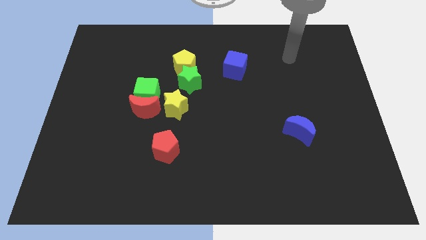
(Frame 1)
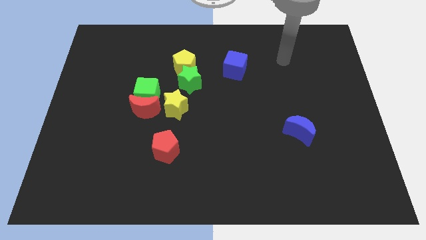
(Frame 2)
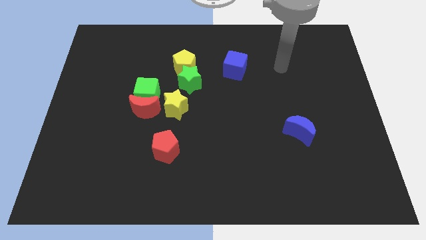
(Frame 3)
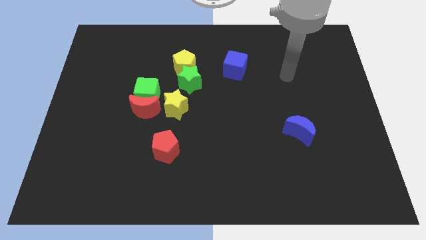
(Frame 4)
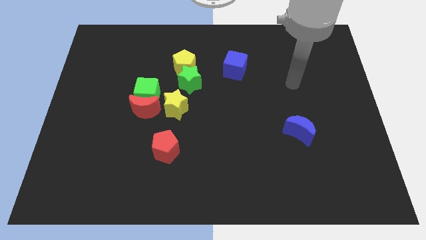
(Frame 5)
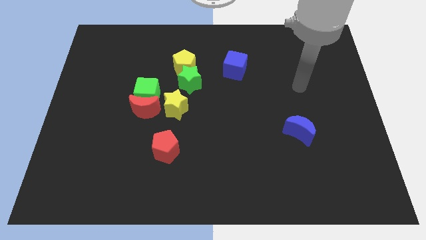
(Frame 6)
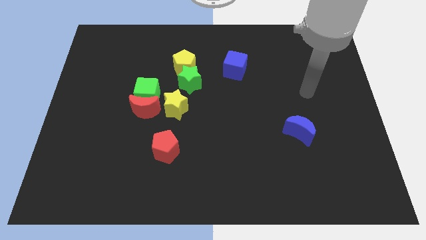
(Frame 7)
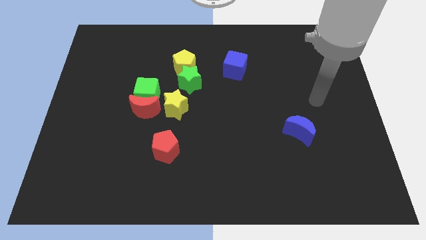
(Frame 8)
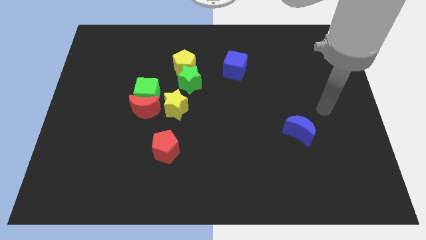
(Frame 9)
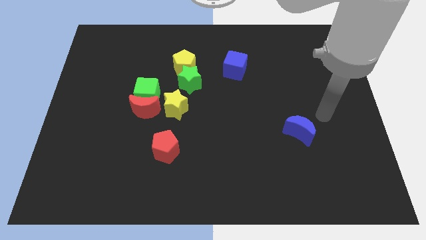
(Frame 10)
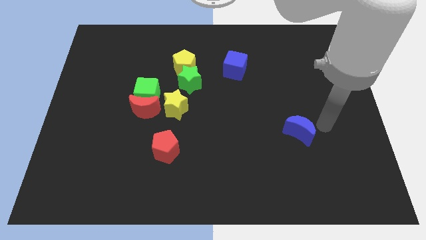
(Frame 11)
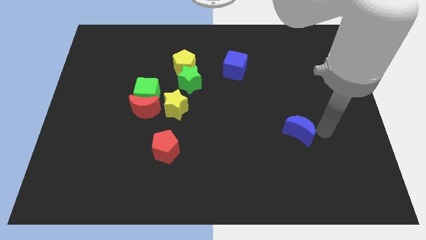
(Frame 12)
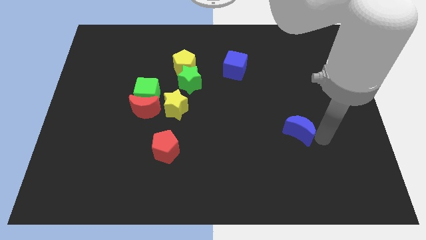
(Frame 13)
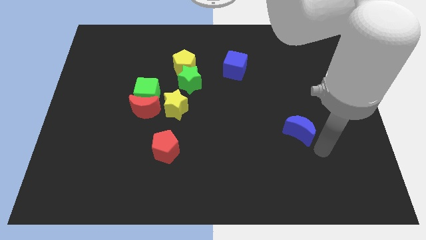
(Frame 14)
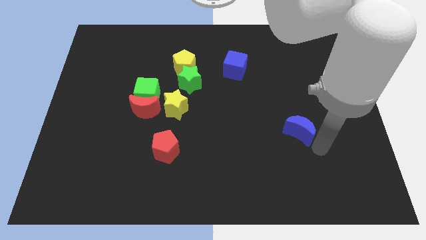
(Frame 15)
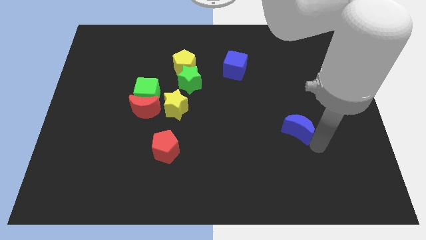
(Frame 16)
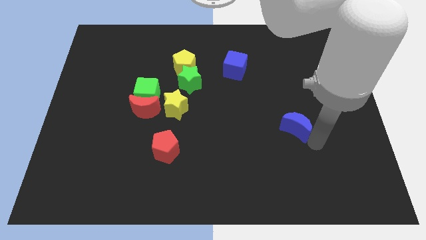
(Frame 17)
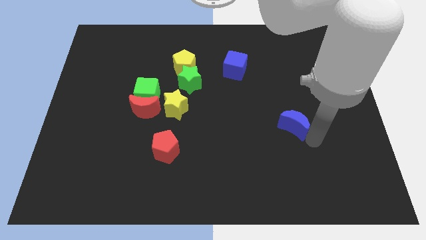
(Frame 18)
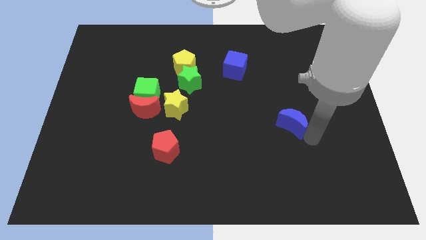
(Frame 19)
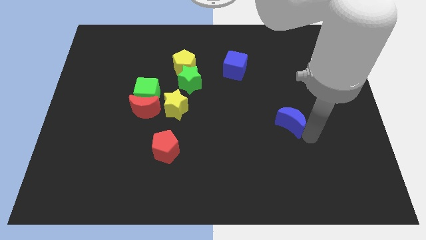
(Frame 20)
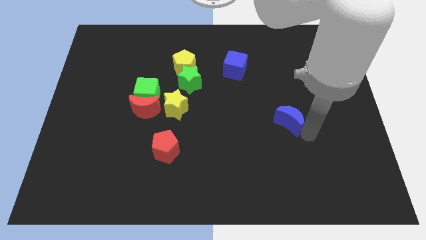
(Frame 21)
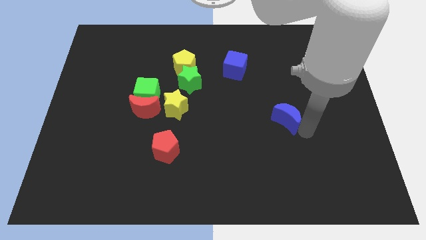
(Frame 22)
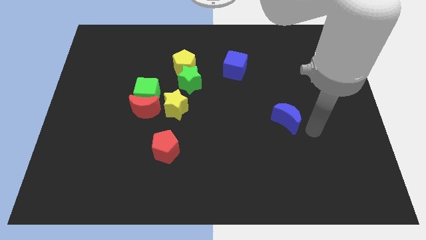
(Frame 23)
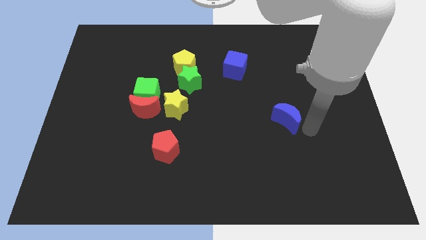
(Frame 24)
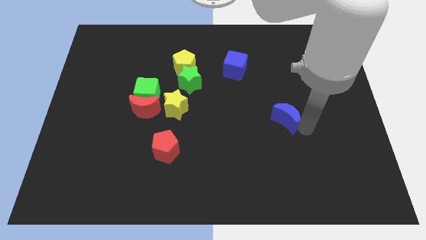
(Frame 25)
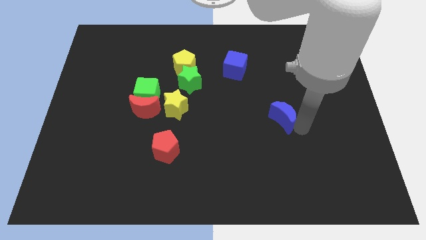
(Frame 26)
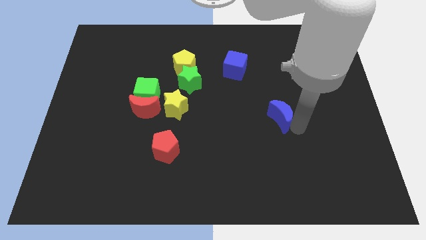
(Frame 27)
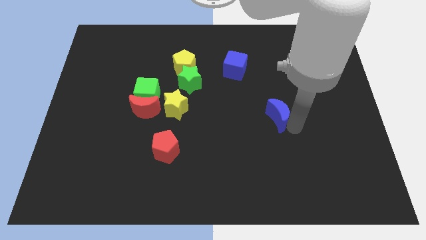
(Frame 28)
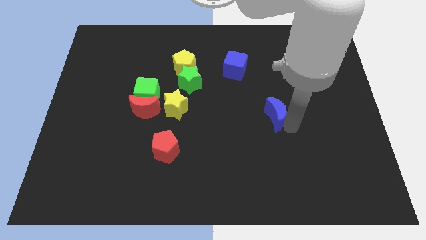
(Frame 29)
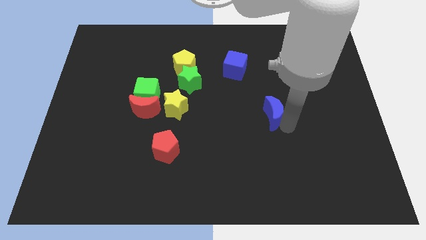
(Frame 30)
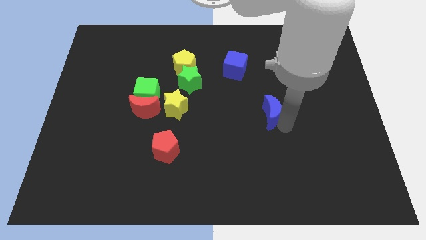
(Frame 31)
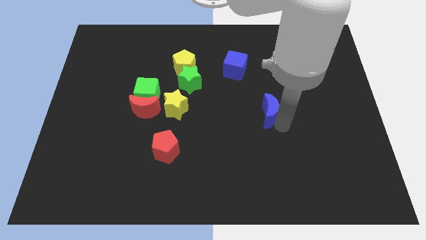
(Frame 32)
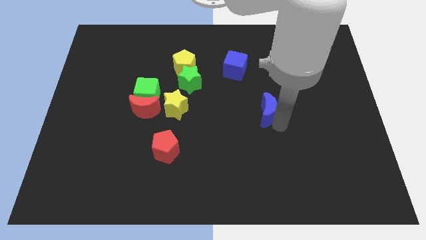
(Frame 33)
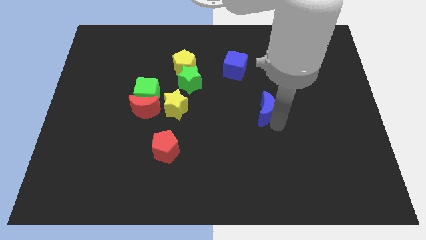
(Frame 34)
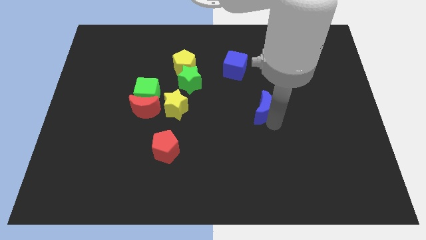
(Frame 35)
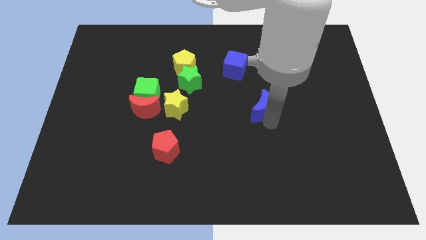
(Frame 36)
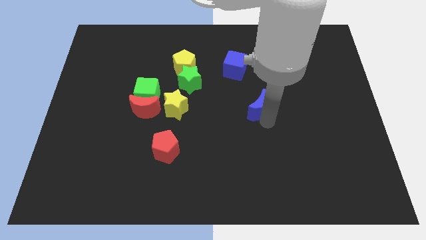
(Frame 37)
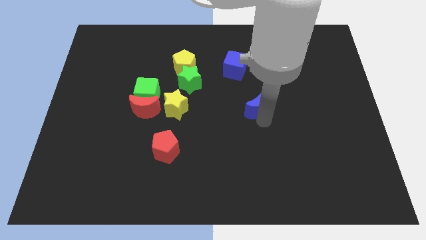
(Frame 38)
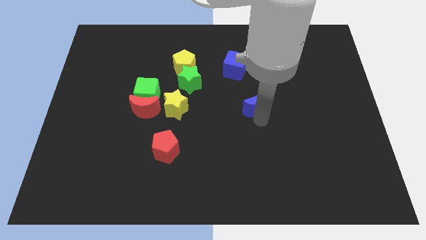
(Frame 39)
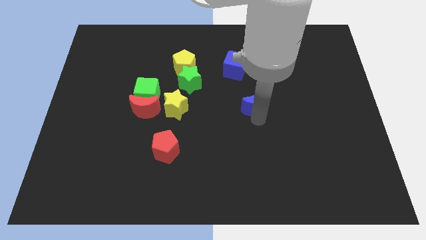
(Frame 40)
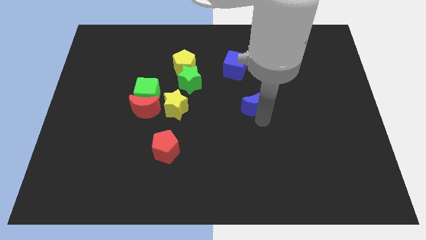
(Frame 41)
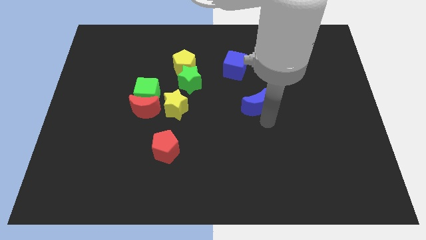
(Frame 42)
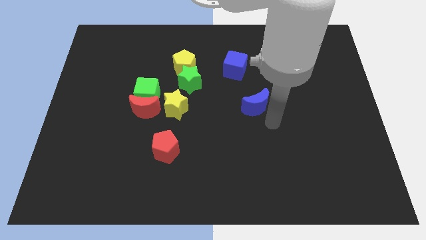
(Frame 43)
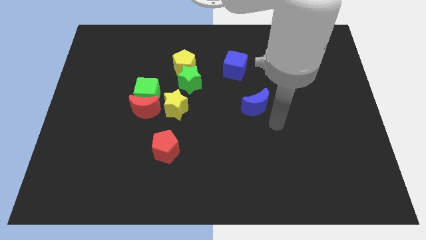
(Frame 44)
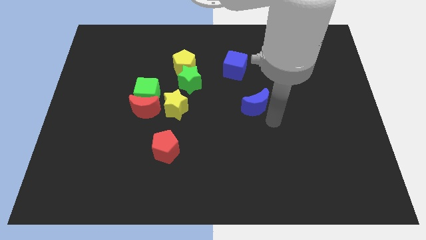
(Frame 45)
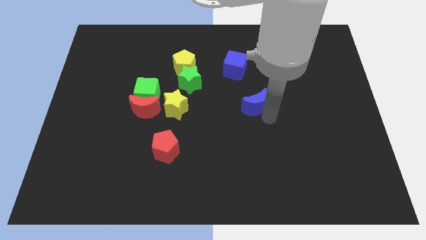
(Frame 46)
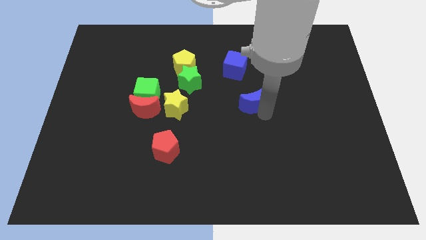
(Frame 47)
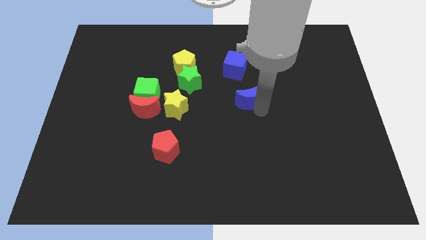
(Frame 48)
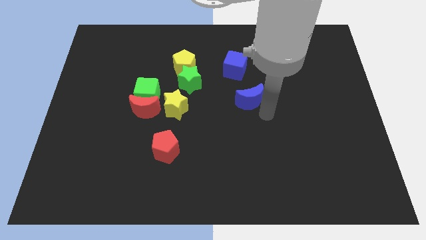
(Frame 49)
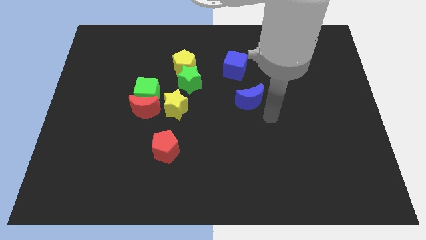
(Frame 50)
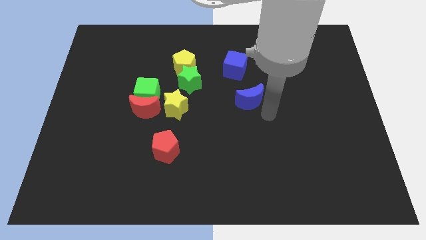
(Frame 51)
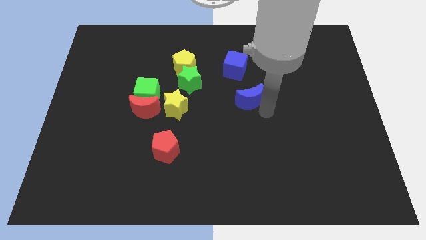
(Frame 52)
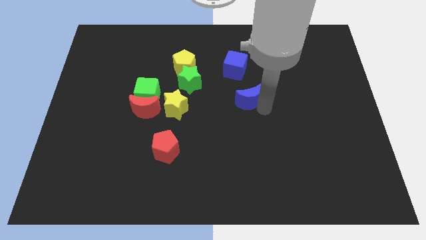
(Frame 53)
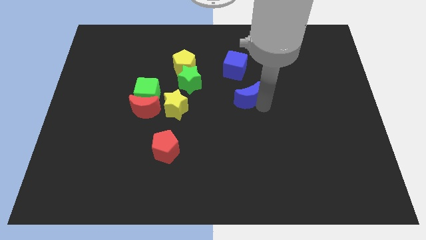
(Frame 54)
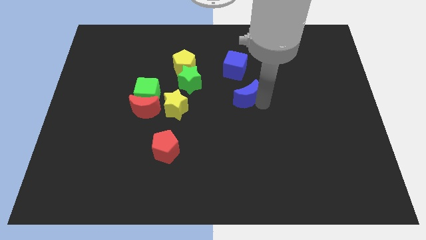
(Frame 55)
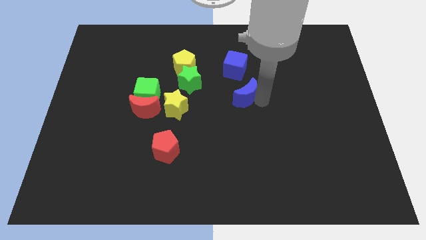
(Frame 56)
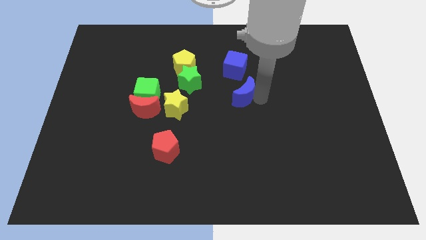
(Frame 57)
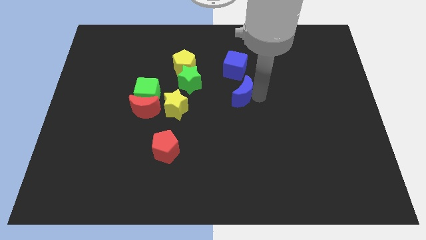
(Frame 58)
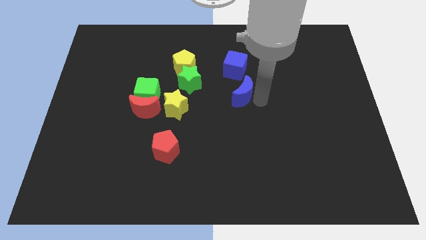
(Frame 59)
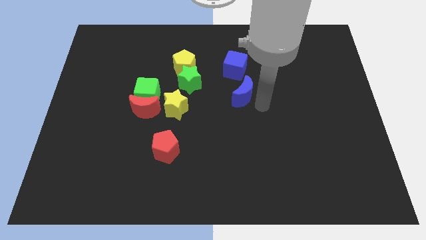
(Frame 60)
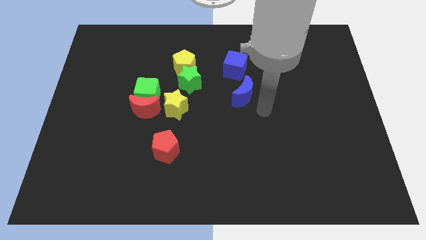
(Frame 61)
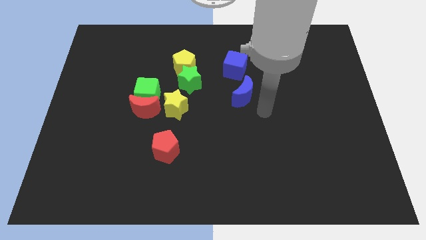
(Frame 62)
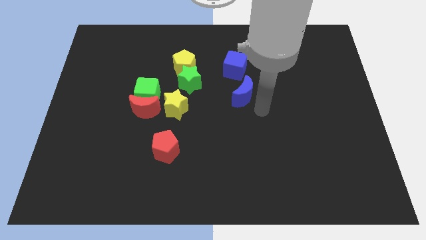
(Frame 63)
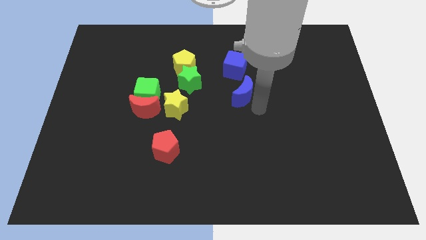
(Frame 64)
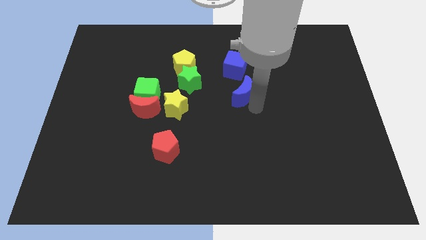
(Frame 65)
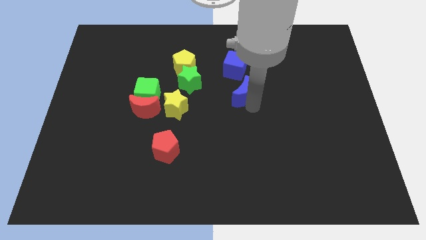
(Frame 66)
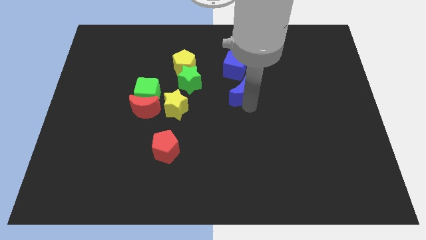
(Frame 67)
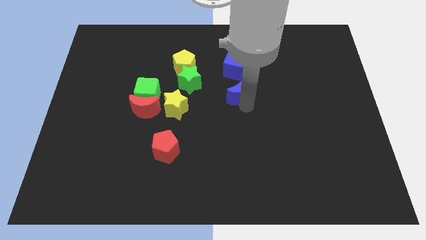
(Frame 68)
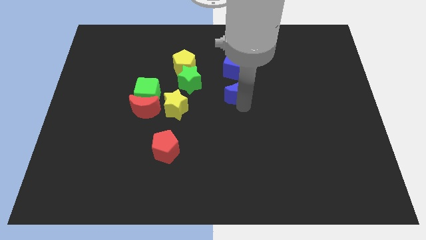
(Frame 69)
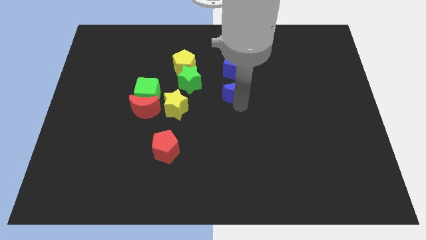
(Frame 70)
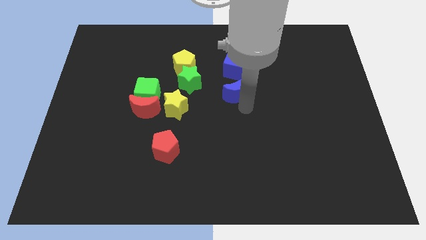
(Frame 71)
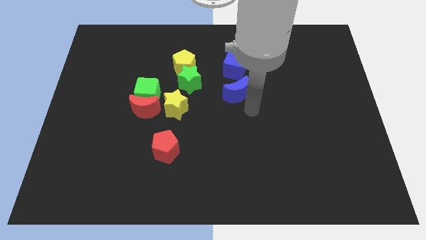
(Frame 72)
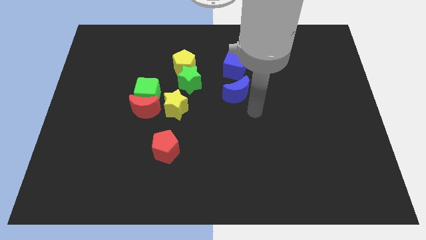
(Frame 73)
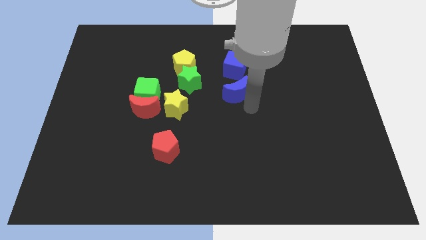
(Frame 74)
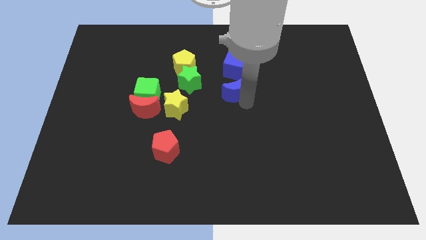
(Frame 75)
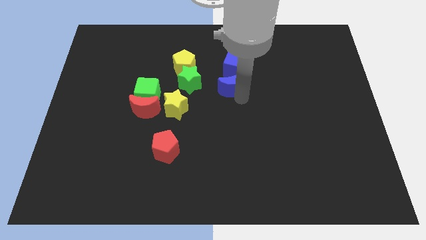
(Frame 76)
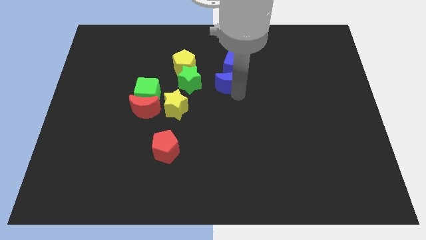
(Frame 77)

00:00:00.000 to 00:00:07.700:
move the blue moon upwards and to the left diagonally

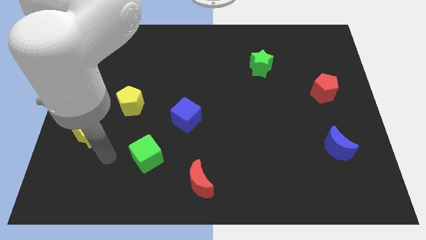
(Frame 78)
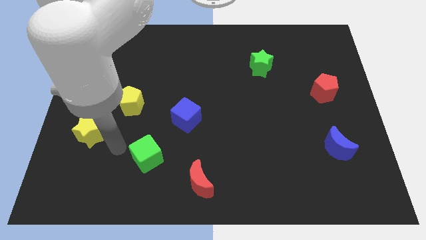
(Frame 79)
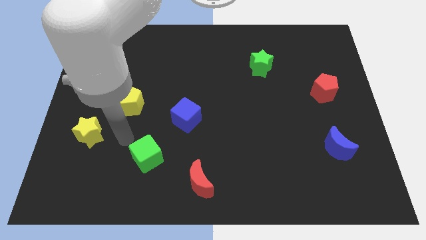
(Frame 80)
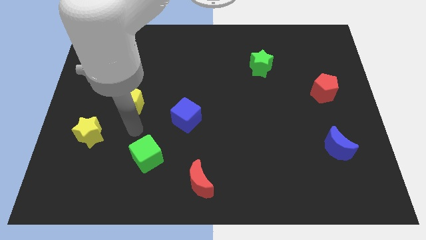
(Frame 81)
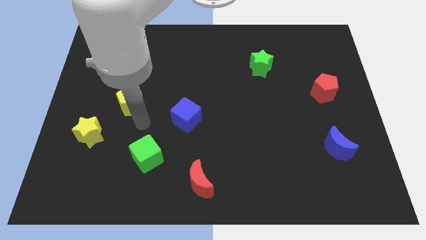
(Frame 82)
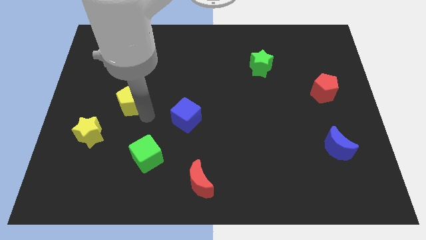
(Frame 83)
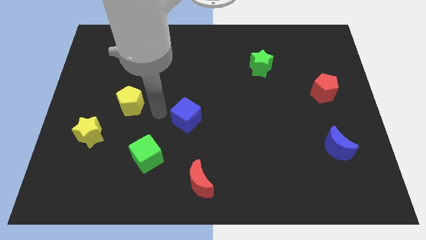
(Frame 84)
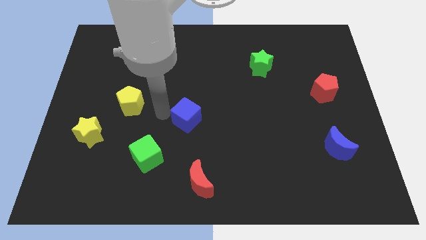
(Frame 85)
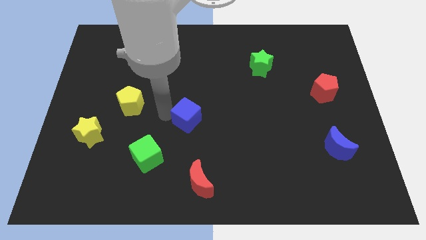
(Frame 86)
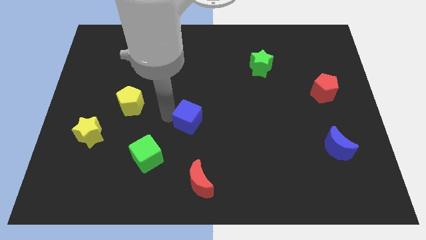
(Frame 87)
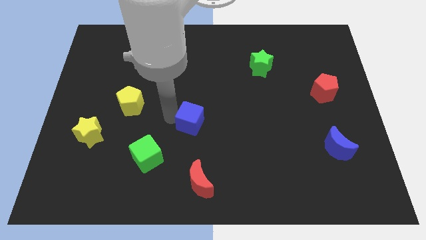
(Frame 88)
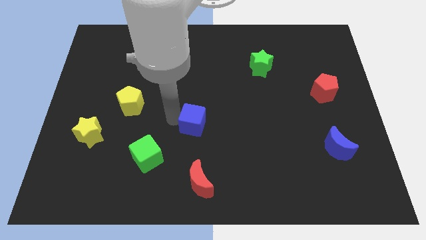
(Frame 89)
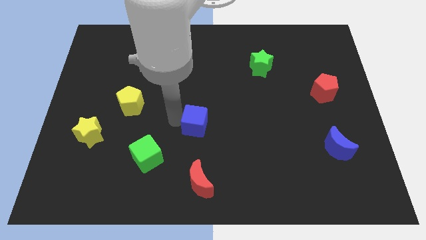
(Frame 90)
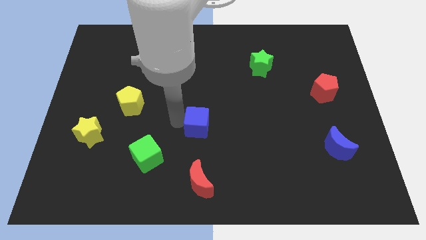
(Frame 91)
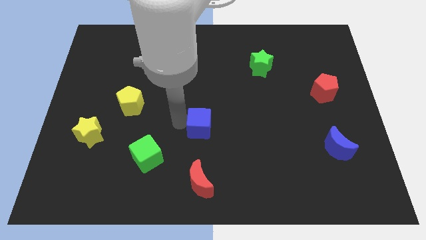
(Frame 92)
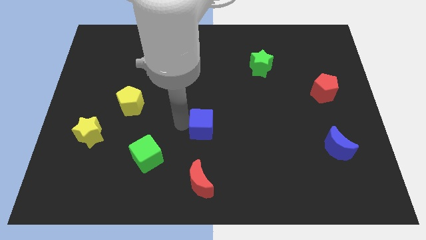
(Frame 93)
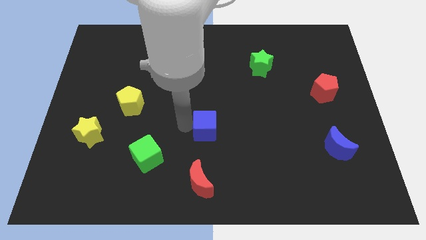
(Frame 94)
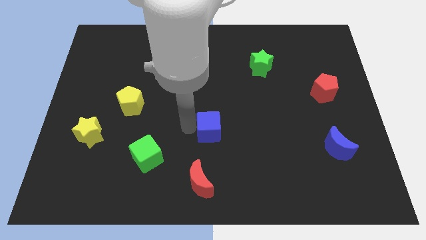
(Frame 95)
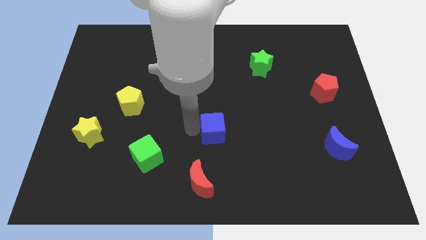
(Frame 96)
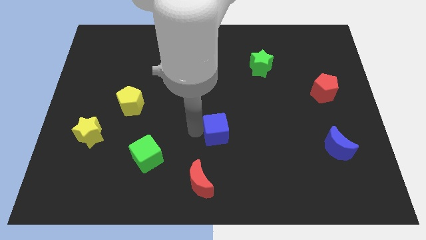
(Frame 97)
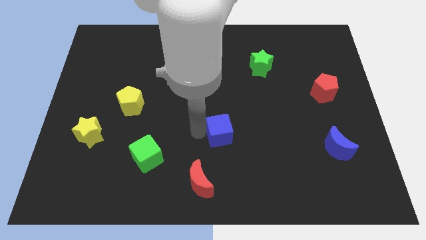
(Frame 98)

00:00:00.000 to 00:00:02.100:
slightly push the blue cube to the right
